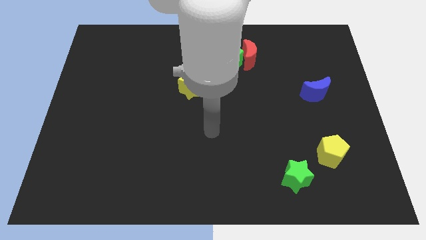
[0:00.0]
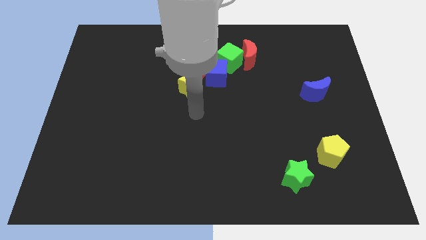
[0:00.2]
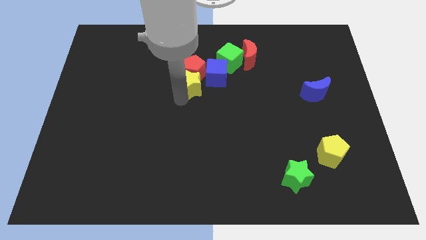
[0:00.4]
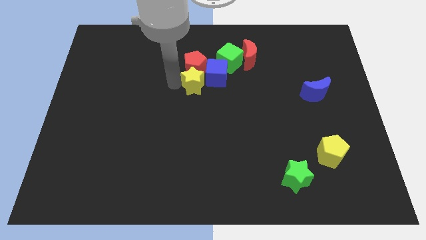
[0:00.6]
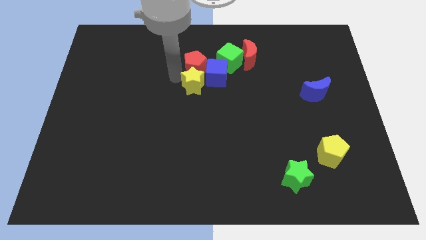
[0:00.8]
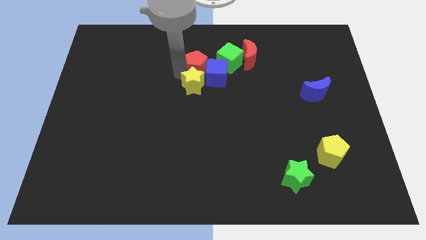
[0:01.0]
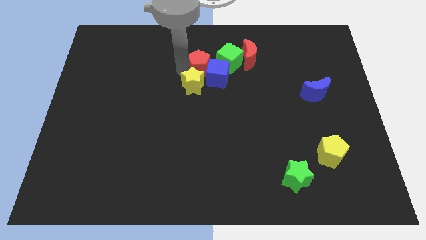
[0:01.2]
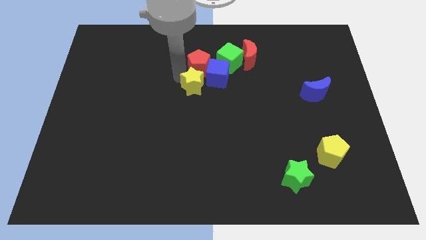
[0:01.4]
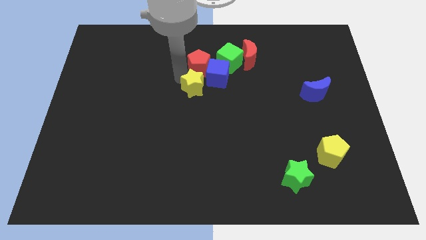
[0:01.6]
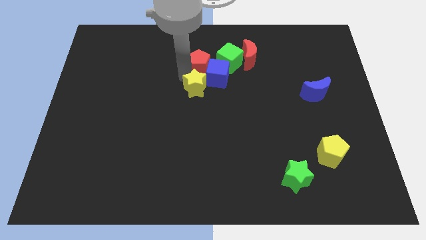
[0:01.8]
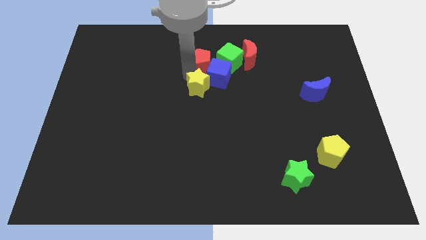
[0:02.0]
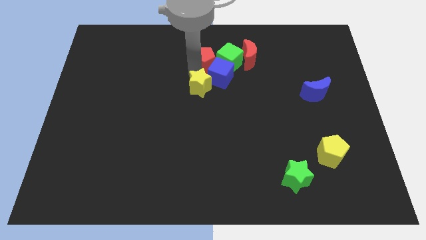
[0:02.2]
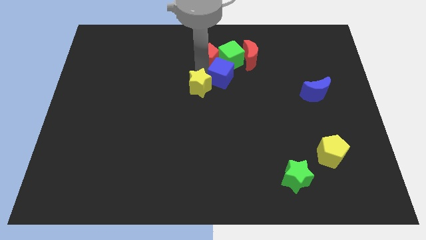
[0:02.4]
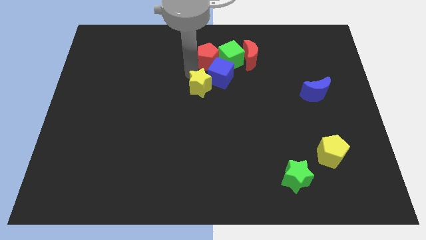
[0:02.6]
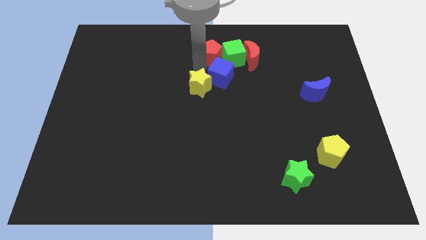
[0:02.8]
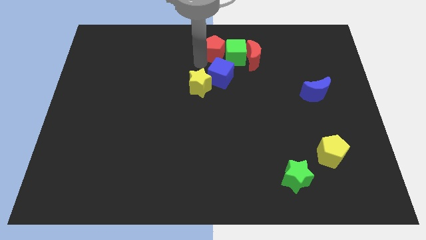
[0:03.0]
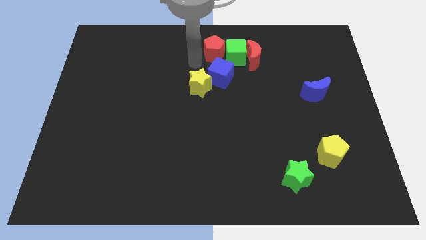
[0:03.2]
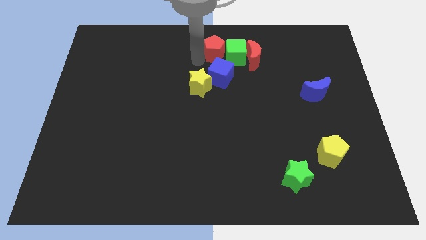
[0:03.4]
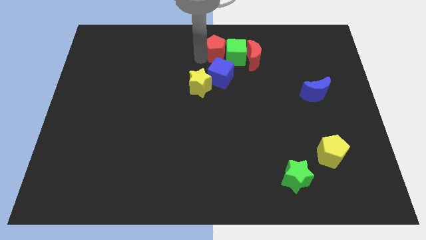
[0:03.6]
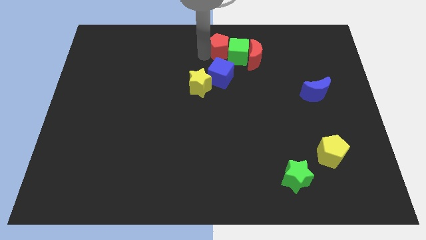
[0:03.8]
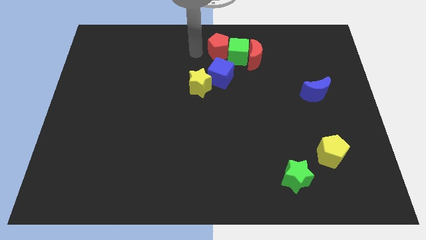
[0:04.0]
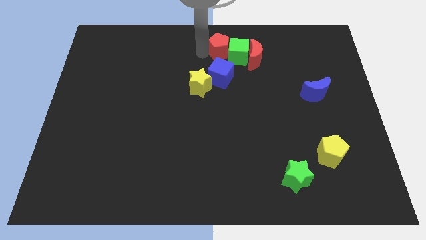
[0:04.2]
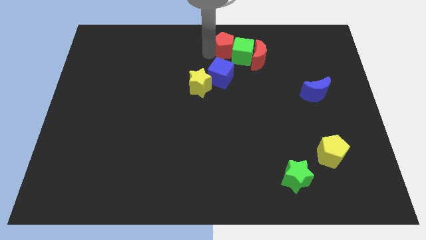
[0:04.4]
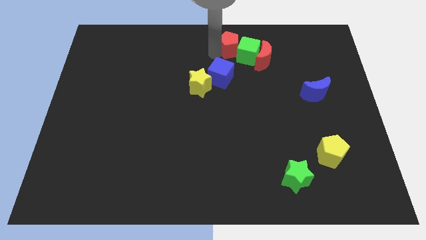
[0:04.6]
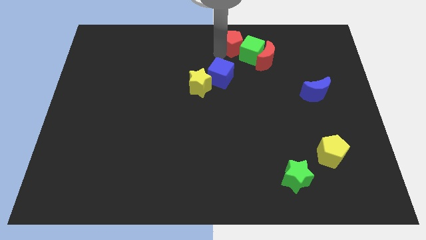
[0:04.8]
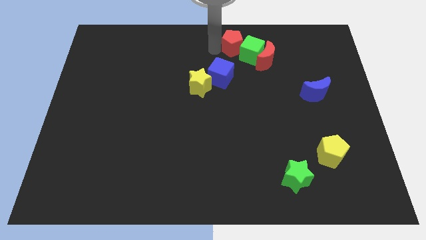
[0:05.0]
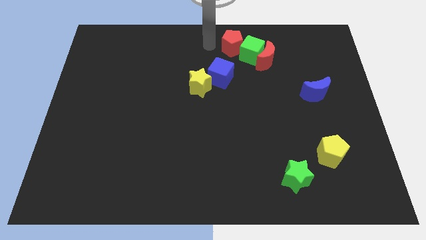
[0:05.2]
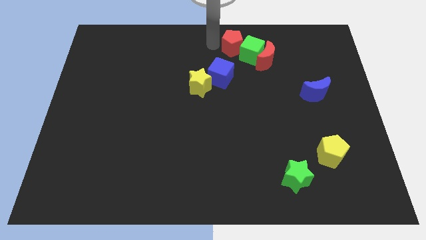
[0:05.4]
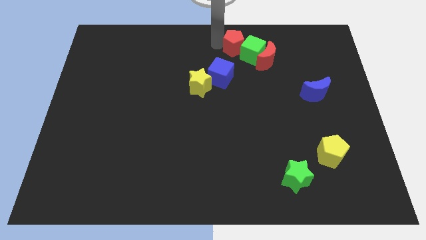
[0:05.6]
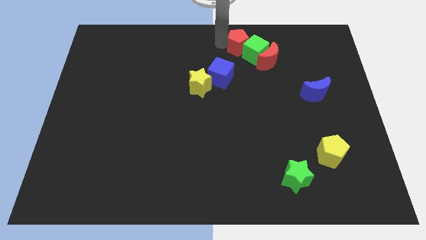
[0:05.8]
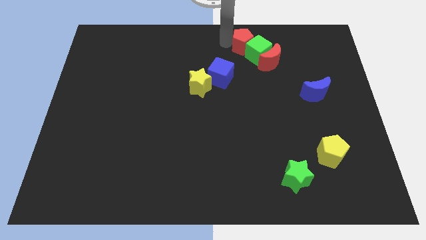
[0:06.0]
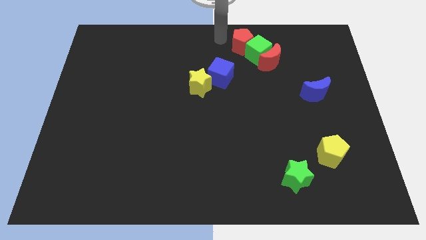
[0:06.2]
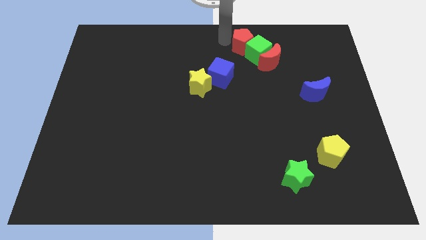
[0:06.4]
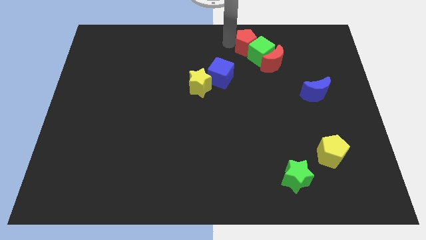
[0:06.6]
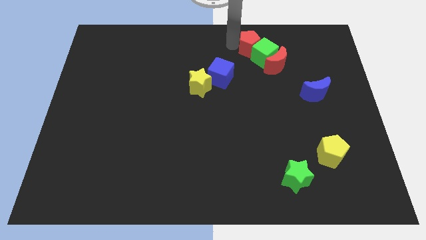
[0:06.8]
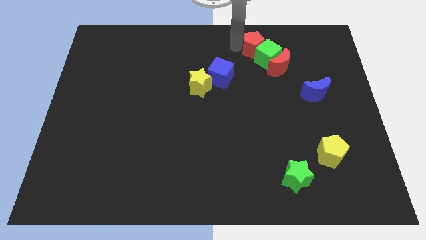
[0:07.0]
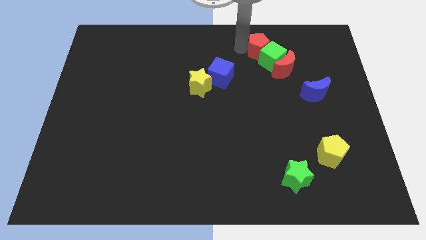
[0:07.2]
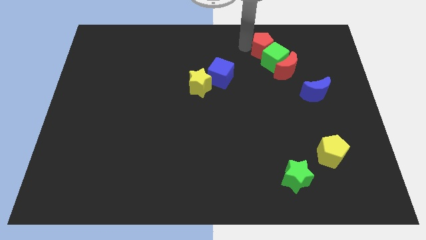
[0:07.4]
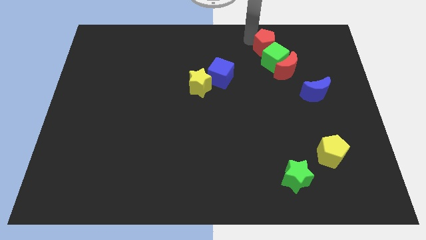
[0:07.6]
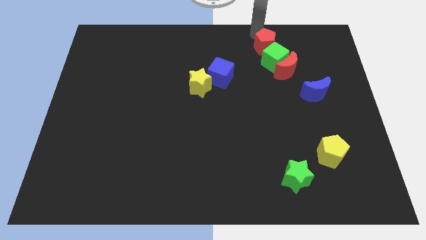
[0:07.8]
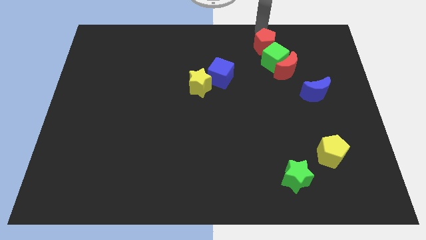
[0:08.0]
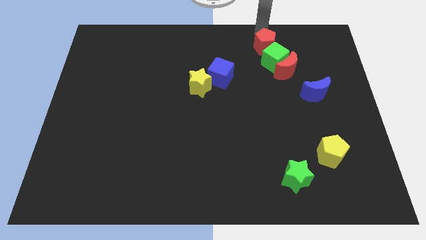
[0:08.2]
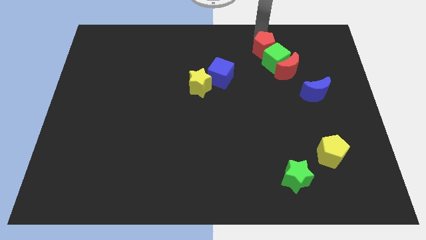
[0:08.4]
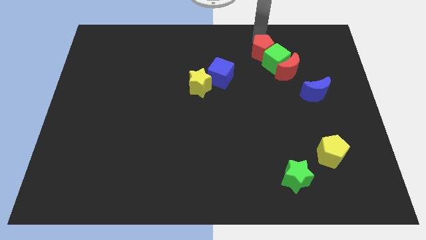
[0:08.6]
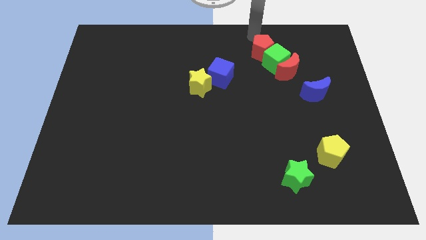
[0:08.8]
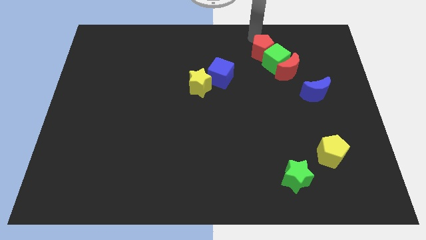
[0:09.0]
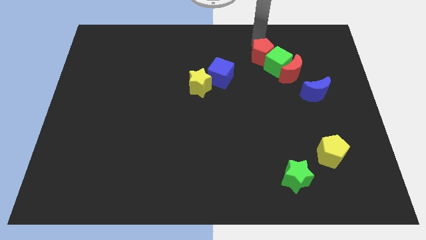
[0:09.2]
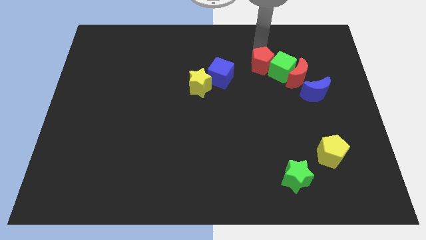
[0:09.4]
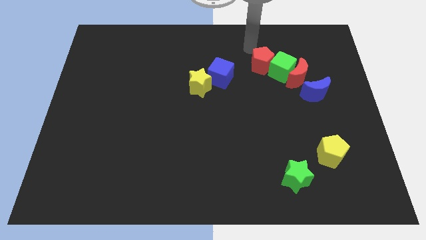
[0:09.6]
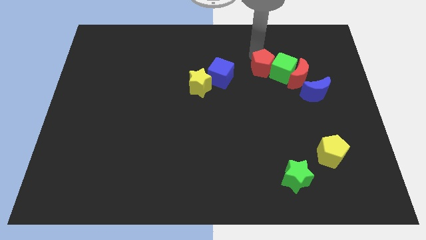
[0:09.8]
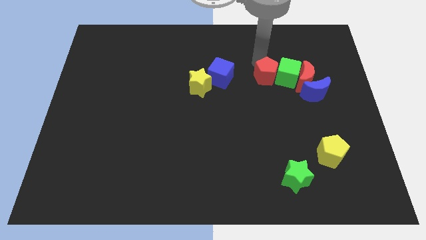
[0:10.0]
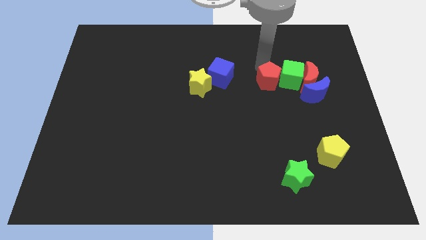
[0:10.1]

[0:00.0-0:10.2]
slide the red pentagon to the left side of the blue moon

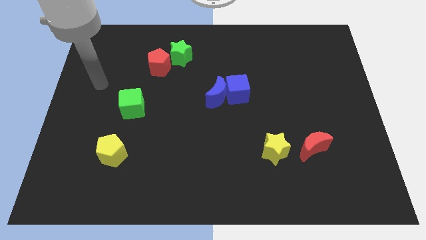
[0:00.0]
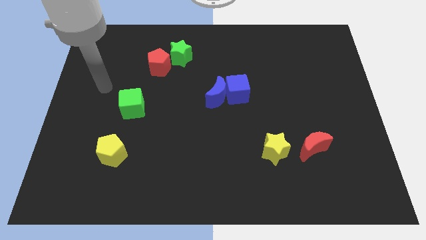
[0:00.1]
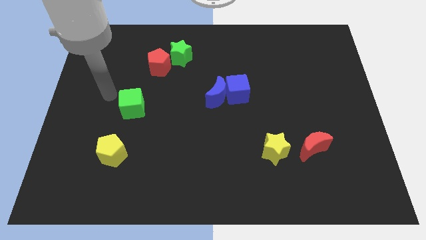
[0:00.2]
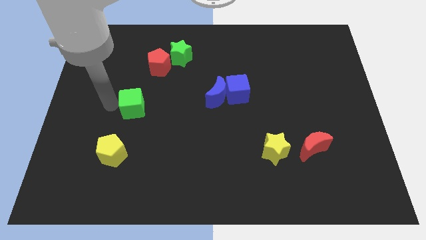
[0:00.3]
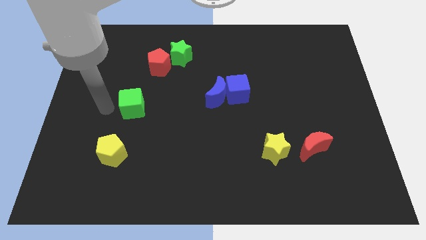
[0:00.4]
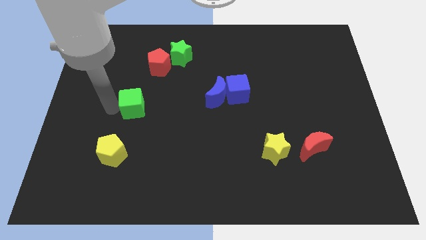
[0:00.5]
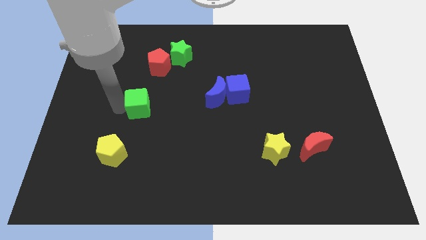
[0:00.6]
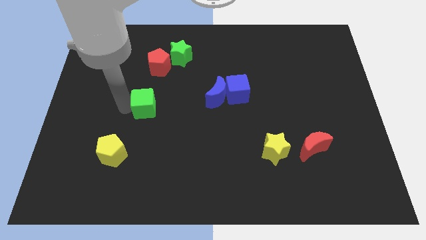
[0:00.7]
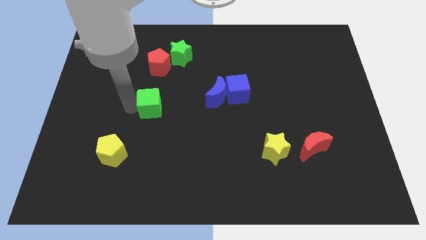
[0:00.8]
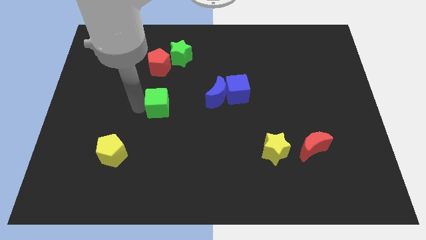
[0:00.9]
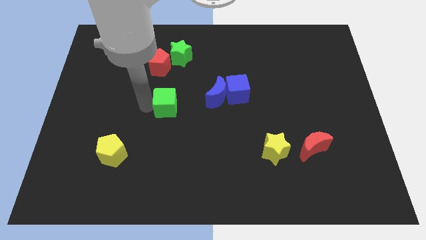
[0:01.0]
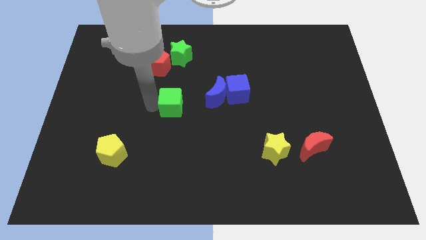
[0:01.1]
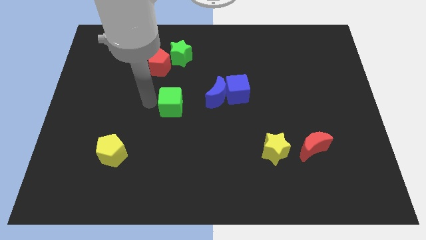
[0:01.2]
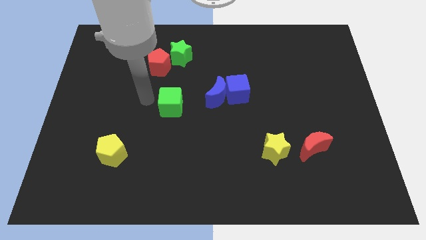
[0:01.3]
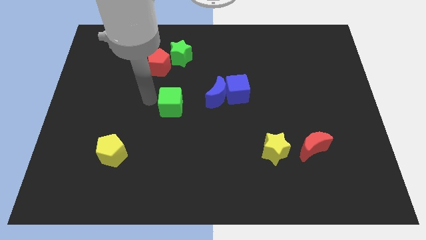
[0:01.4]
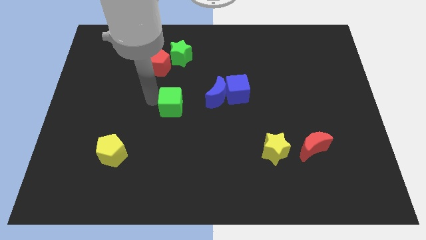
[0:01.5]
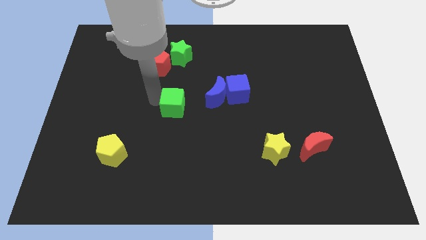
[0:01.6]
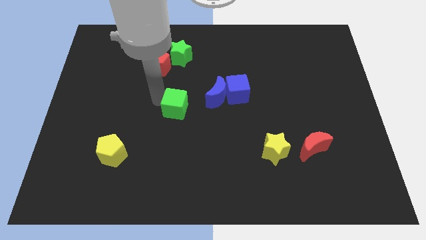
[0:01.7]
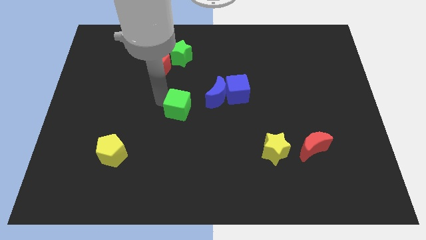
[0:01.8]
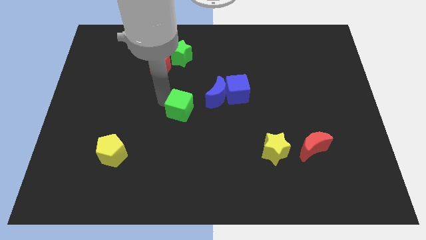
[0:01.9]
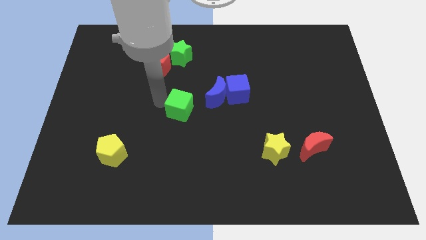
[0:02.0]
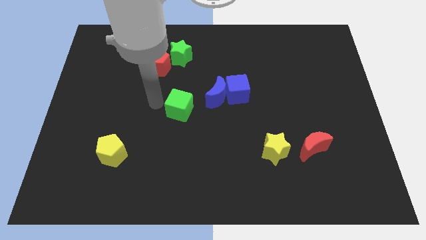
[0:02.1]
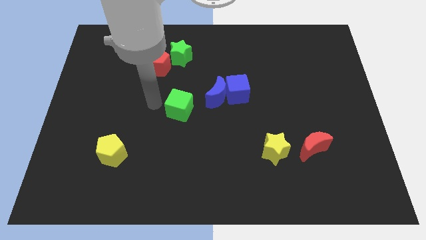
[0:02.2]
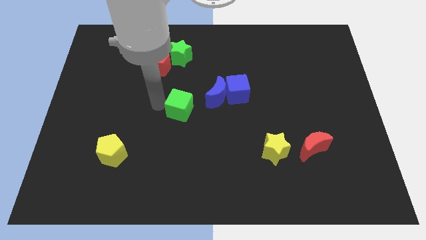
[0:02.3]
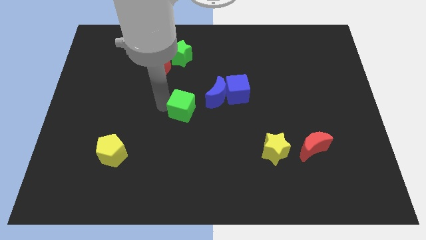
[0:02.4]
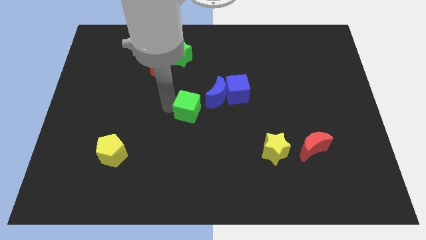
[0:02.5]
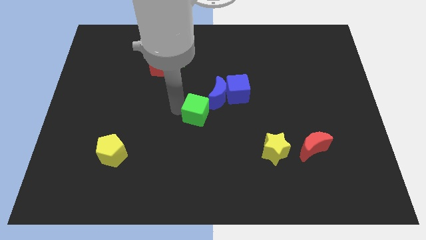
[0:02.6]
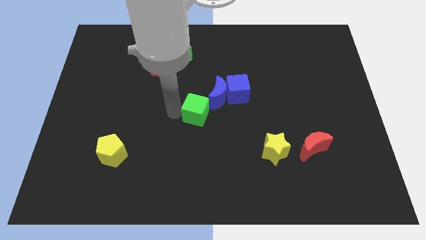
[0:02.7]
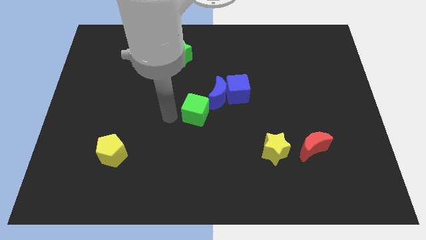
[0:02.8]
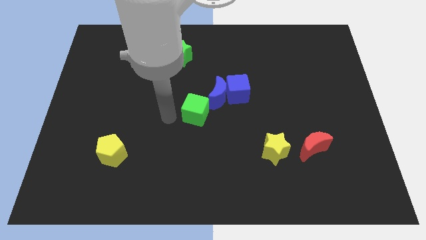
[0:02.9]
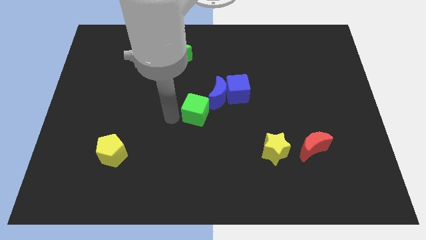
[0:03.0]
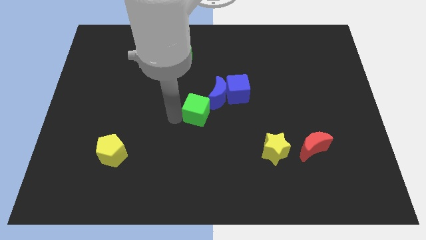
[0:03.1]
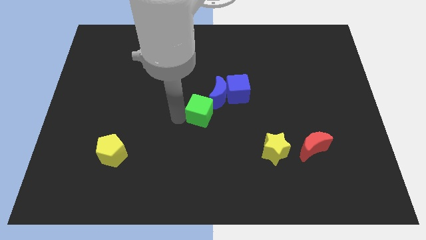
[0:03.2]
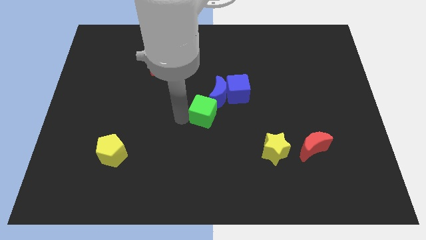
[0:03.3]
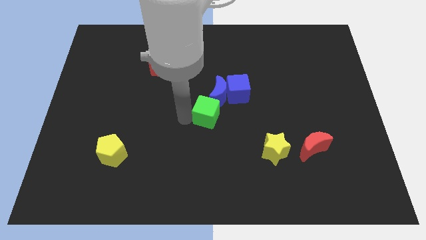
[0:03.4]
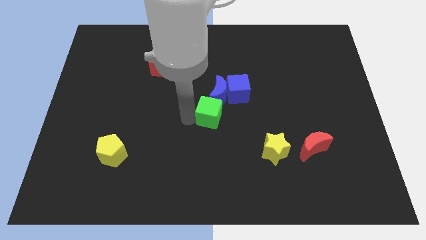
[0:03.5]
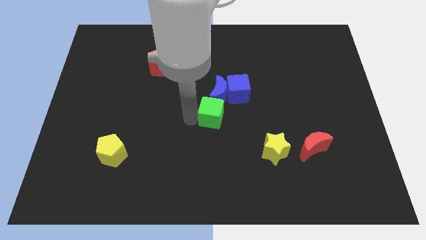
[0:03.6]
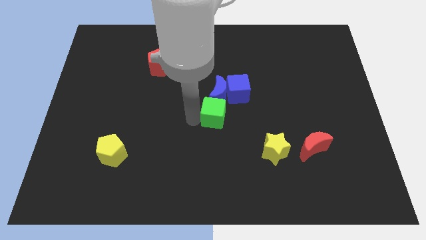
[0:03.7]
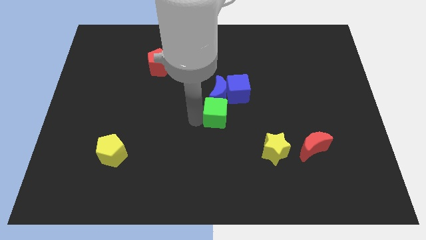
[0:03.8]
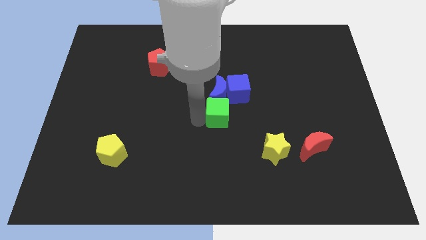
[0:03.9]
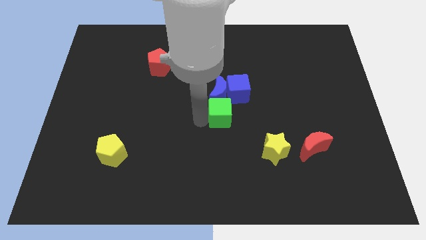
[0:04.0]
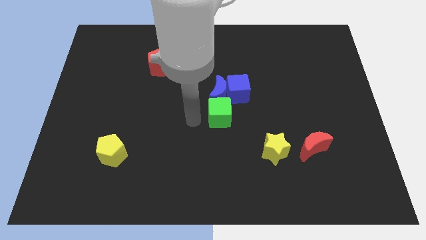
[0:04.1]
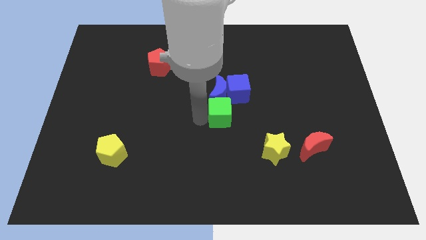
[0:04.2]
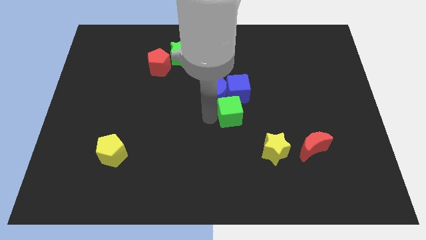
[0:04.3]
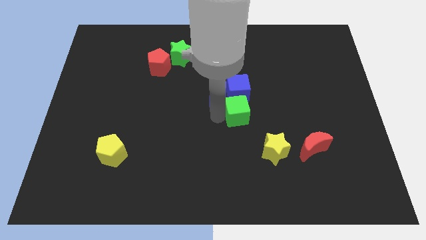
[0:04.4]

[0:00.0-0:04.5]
put the green cube to the bottom right of the blue cube
